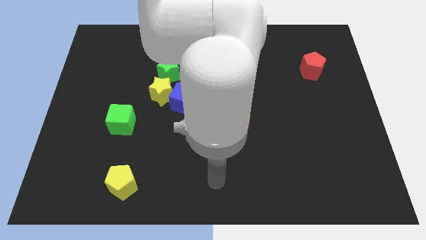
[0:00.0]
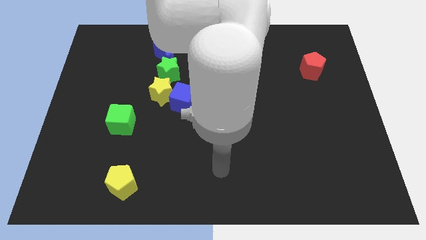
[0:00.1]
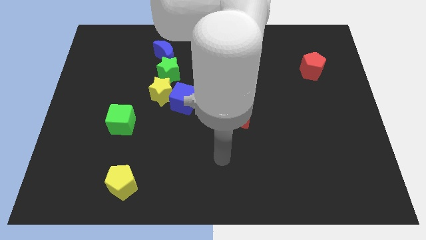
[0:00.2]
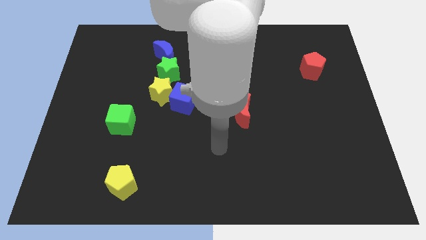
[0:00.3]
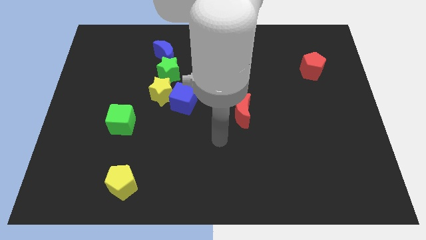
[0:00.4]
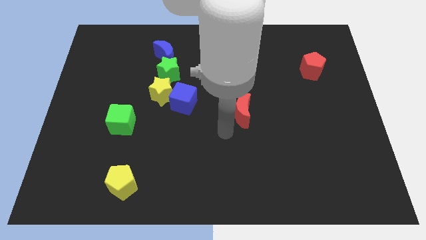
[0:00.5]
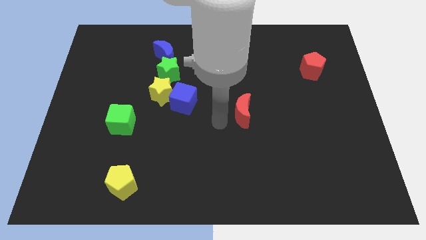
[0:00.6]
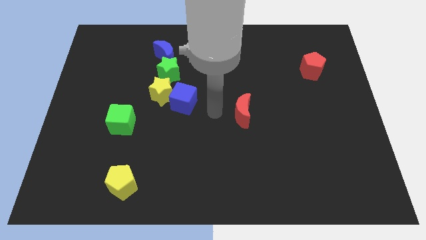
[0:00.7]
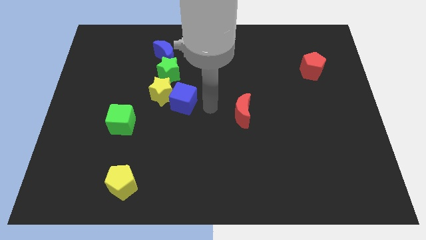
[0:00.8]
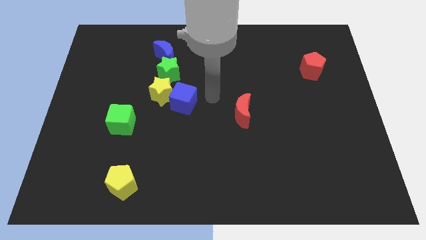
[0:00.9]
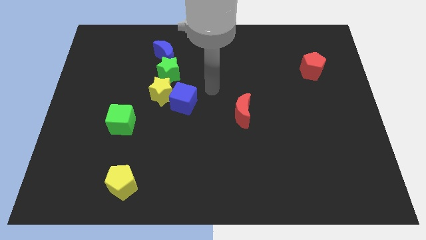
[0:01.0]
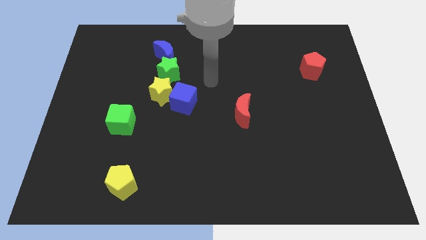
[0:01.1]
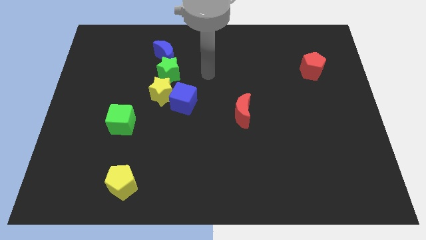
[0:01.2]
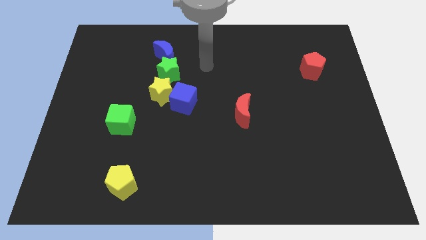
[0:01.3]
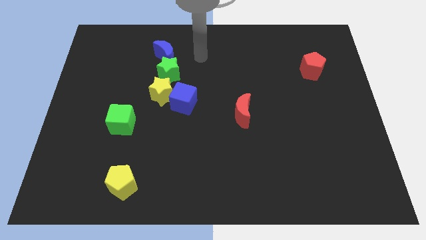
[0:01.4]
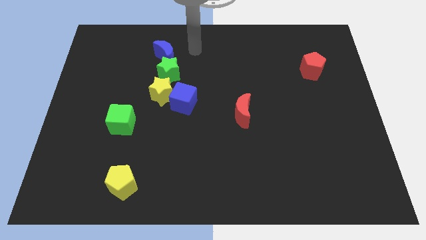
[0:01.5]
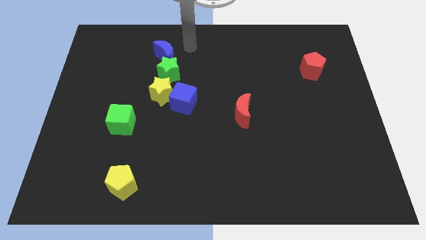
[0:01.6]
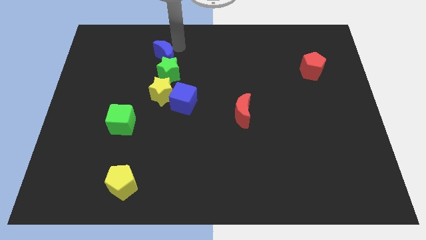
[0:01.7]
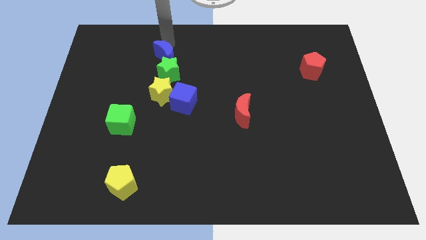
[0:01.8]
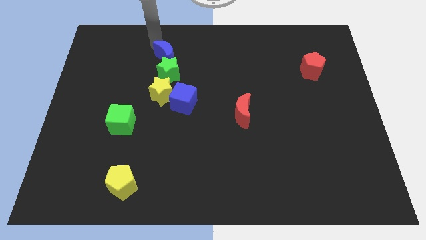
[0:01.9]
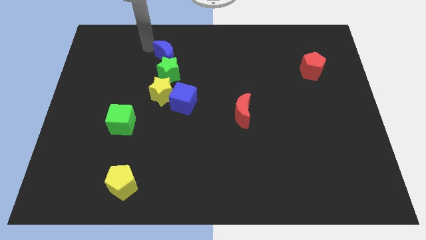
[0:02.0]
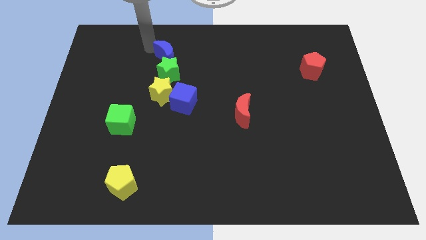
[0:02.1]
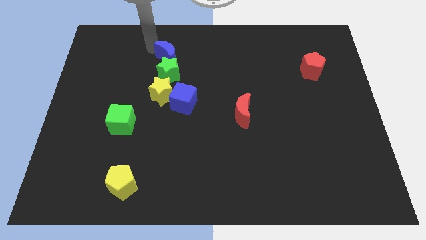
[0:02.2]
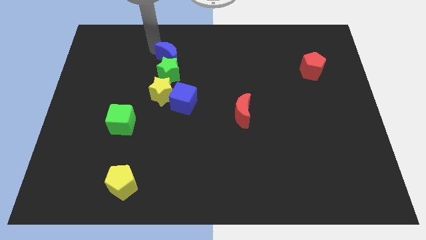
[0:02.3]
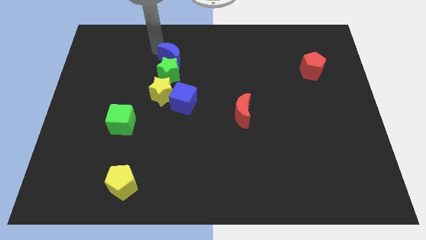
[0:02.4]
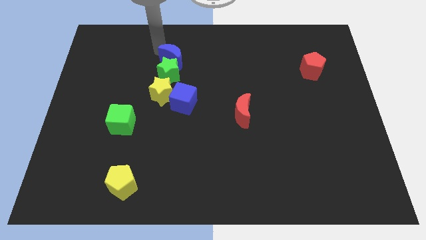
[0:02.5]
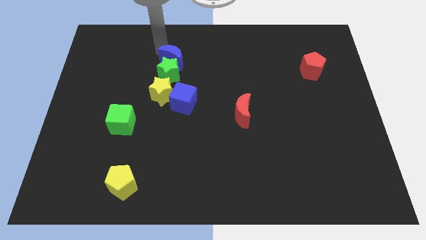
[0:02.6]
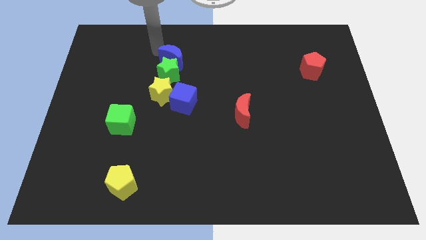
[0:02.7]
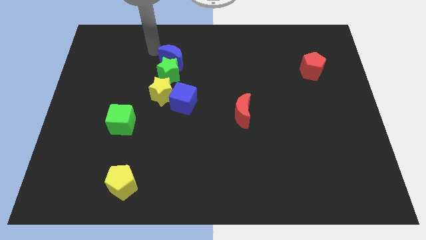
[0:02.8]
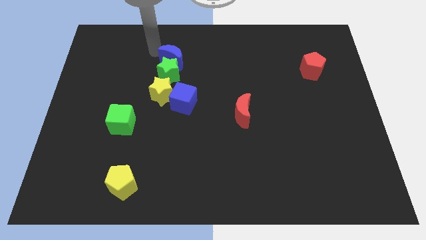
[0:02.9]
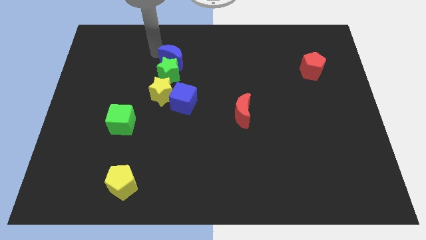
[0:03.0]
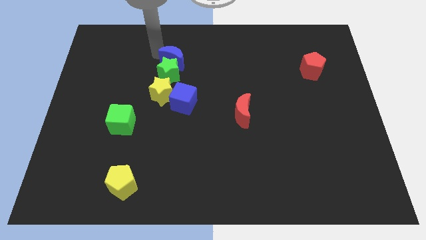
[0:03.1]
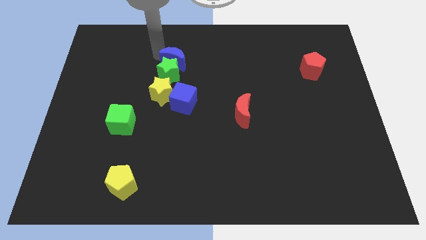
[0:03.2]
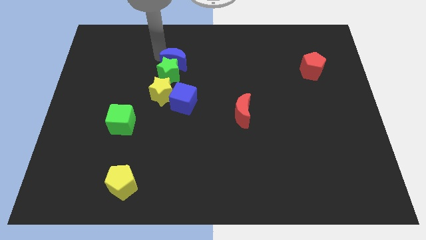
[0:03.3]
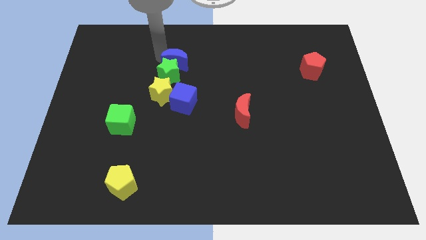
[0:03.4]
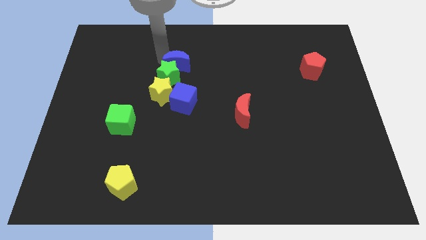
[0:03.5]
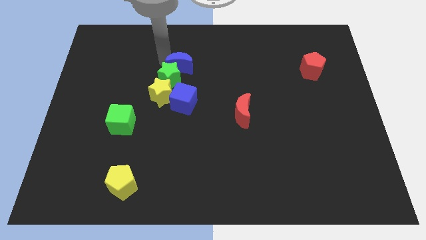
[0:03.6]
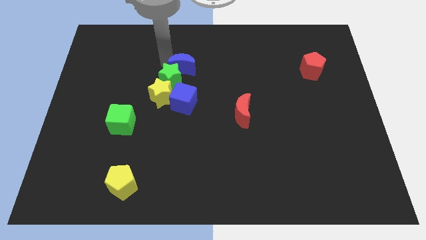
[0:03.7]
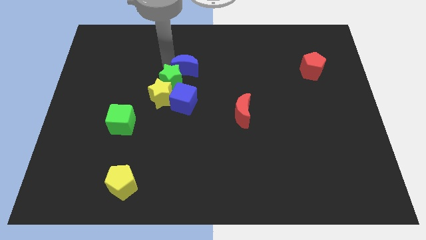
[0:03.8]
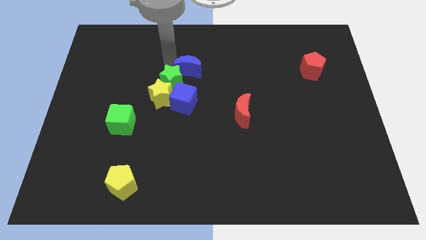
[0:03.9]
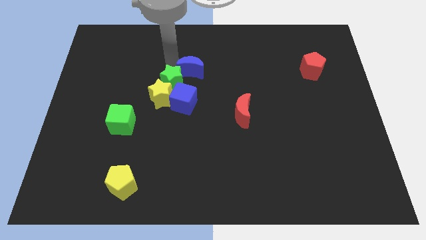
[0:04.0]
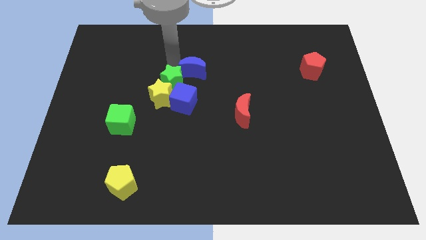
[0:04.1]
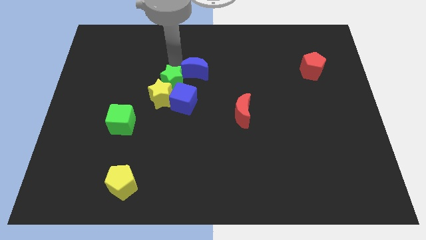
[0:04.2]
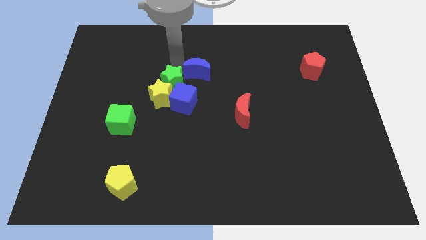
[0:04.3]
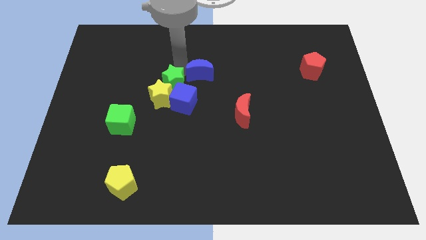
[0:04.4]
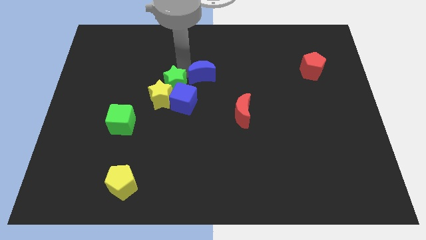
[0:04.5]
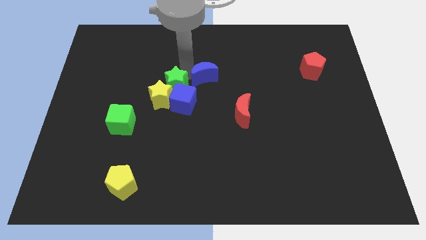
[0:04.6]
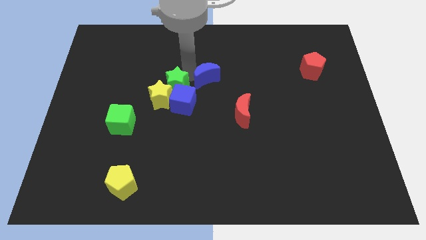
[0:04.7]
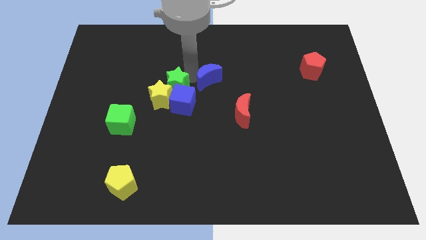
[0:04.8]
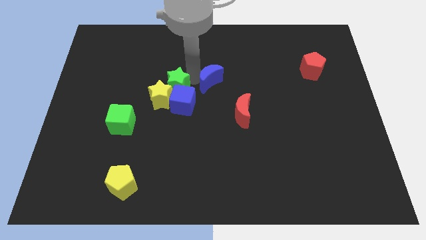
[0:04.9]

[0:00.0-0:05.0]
push the blue moon to the top left side of the red moon

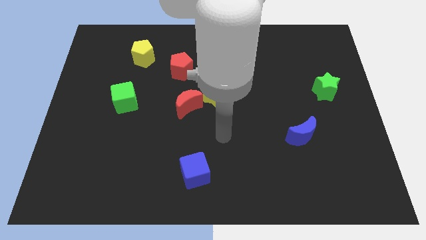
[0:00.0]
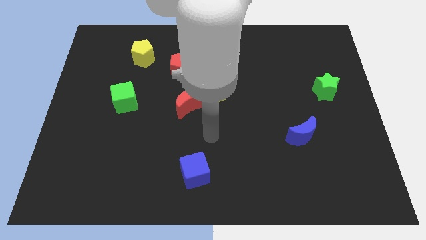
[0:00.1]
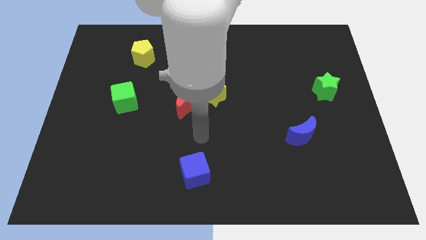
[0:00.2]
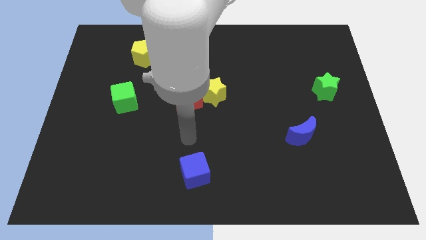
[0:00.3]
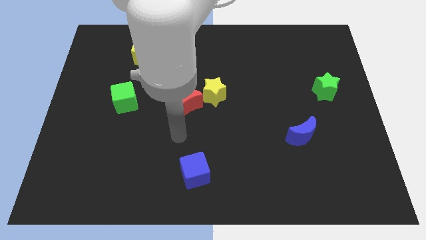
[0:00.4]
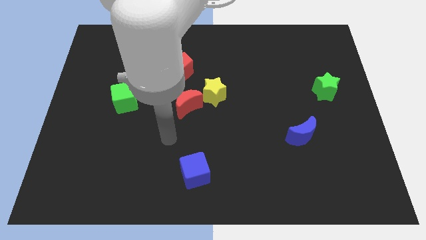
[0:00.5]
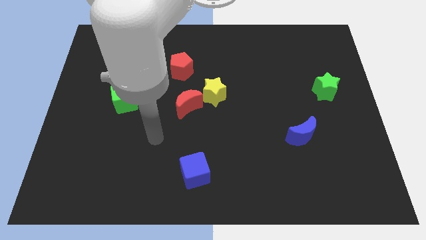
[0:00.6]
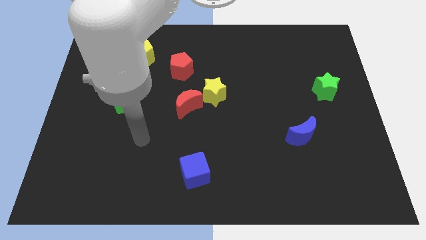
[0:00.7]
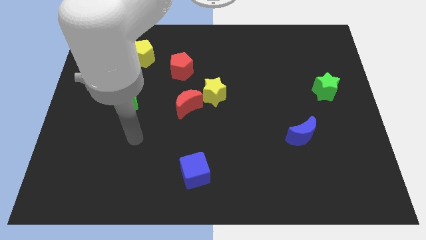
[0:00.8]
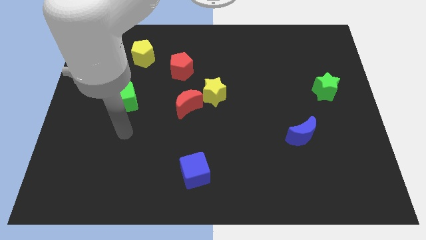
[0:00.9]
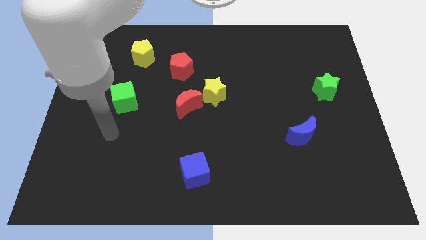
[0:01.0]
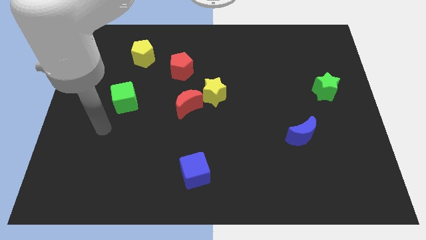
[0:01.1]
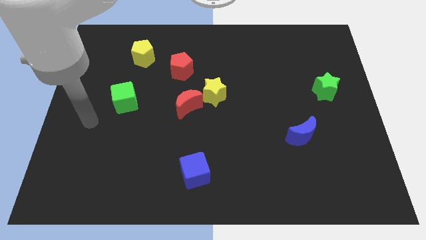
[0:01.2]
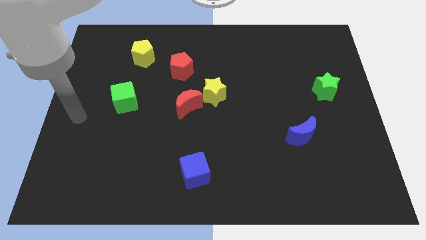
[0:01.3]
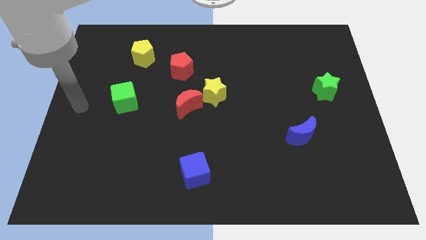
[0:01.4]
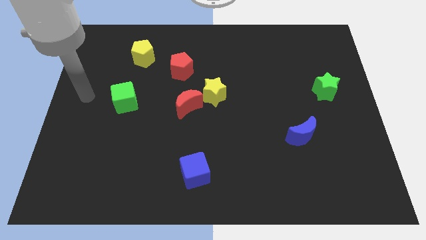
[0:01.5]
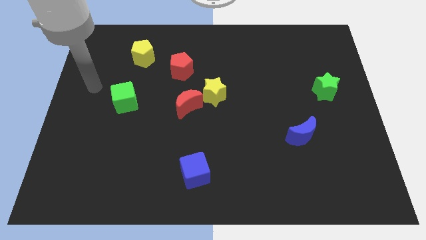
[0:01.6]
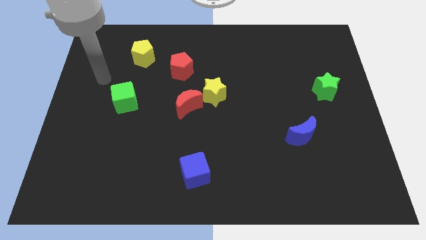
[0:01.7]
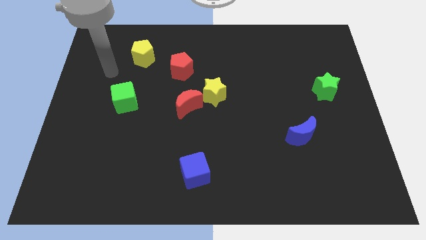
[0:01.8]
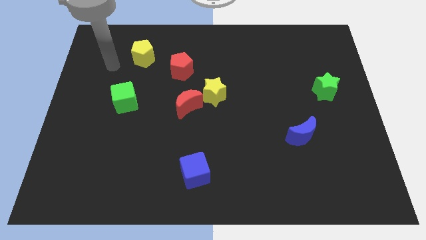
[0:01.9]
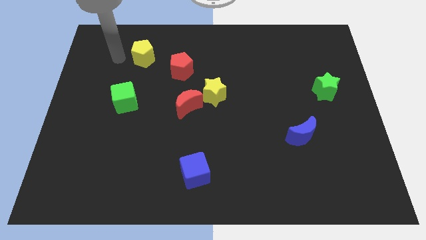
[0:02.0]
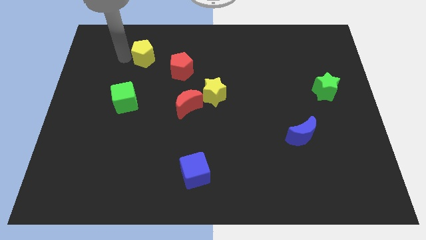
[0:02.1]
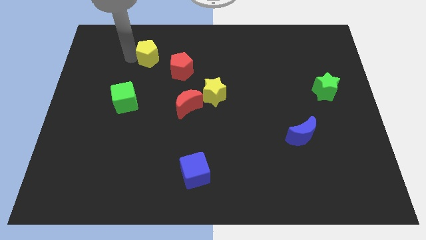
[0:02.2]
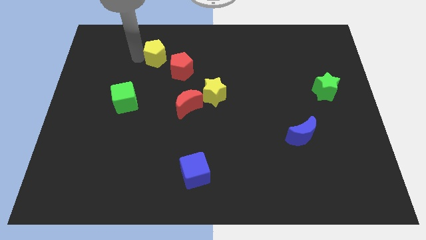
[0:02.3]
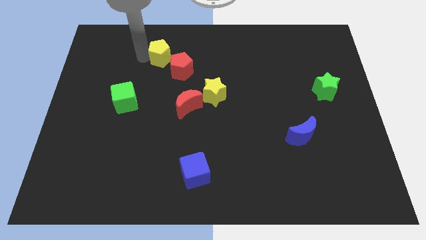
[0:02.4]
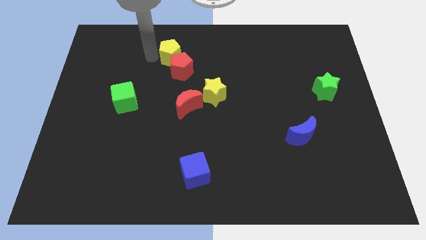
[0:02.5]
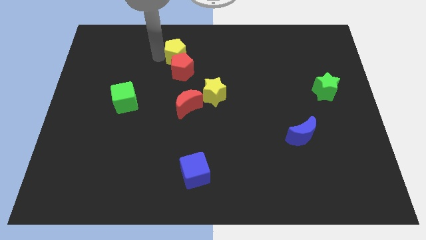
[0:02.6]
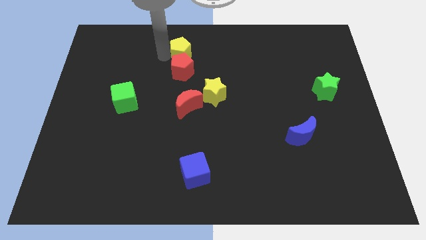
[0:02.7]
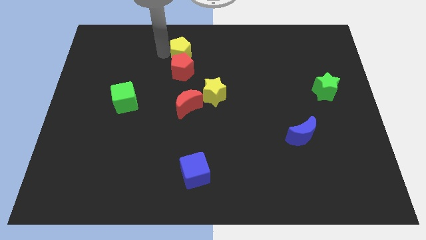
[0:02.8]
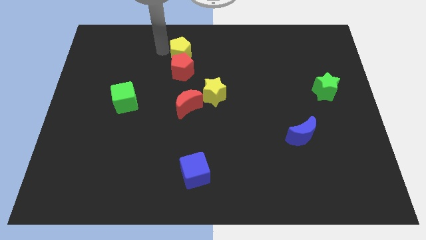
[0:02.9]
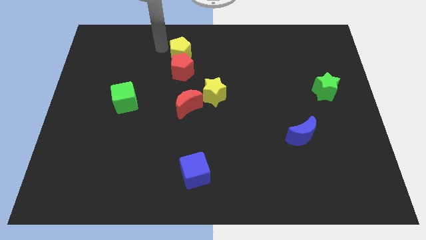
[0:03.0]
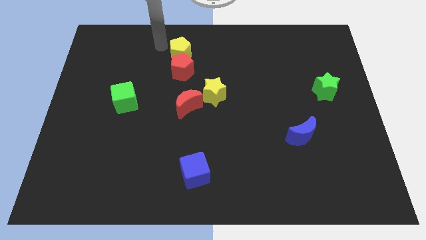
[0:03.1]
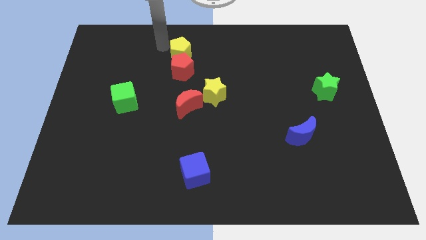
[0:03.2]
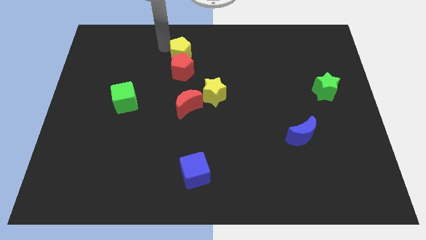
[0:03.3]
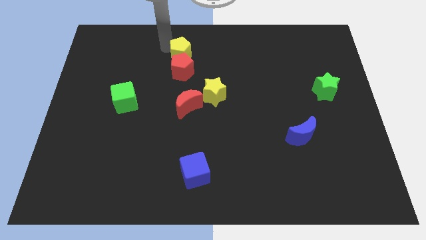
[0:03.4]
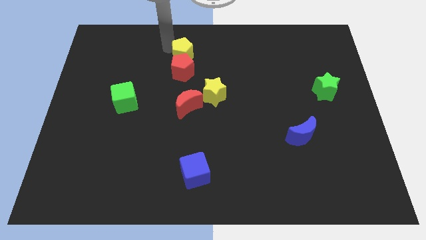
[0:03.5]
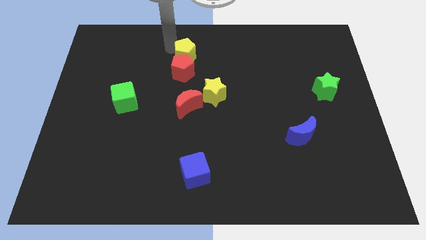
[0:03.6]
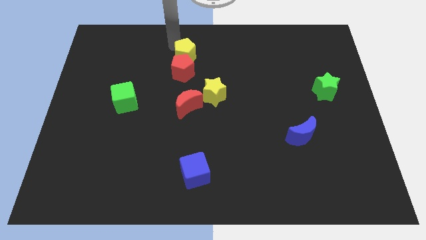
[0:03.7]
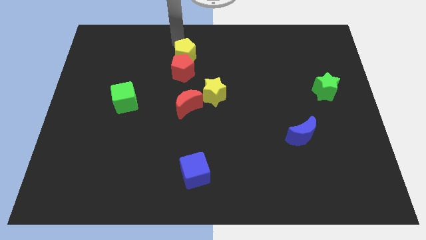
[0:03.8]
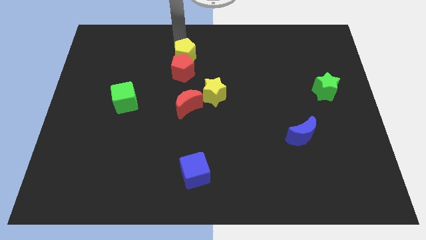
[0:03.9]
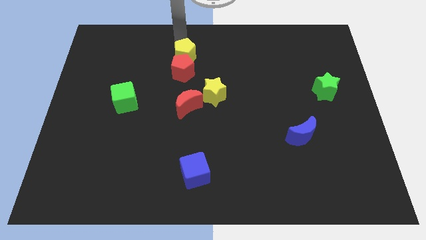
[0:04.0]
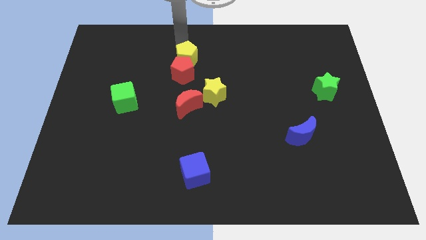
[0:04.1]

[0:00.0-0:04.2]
push the yellow pentagon to the top side of the red moon
